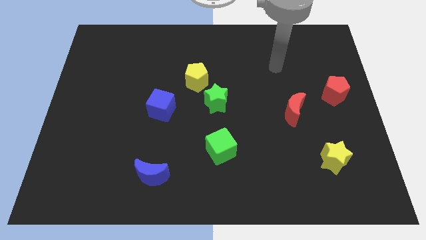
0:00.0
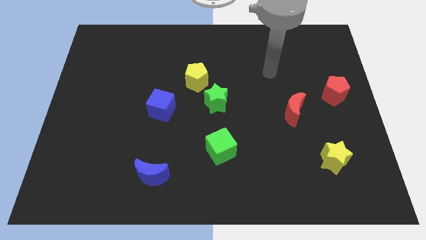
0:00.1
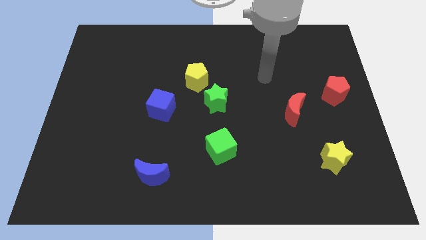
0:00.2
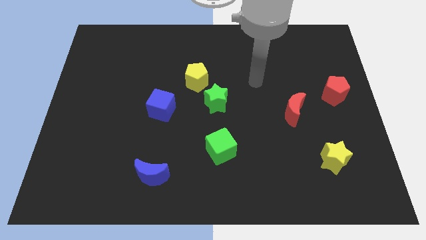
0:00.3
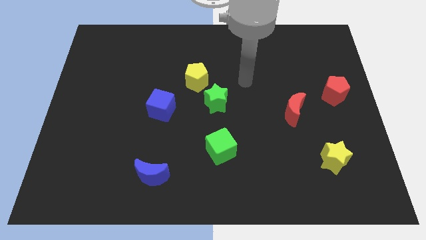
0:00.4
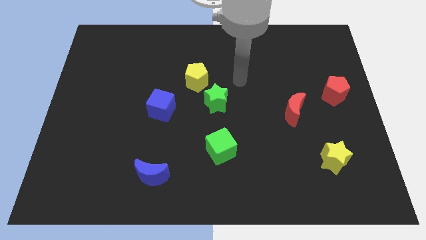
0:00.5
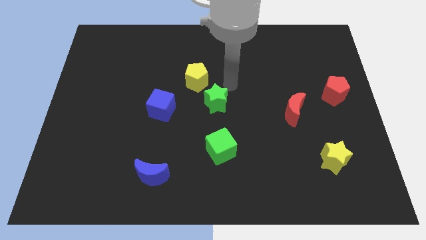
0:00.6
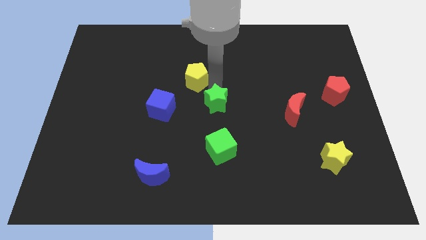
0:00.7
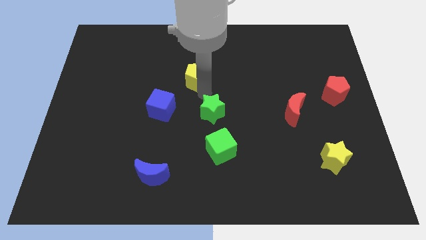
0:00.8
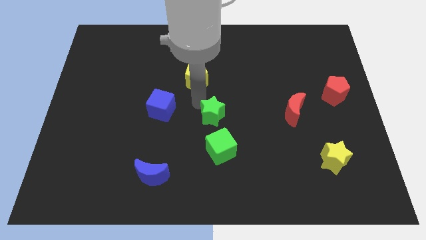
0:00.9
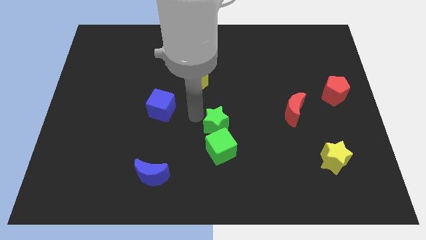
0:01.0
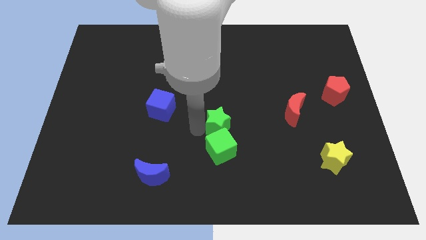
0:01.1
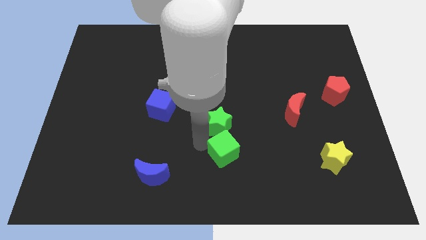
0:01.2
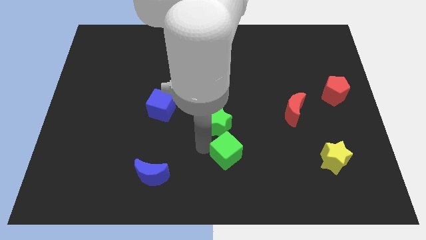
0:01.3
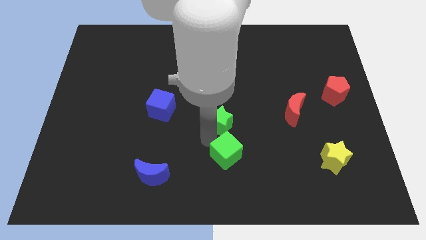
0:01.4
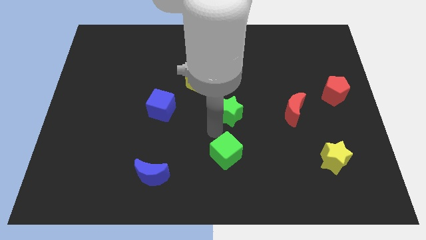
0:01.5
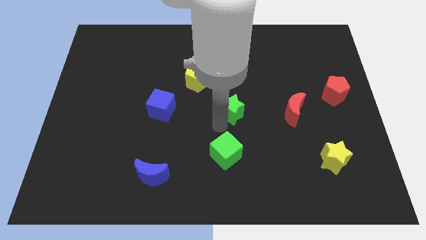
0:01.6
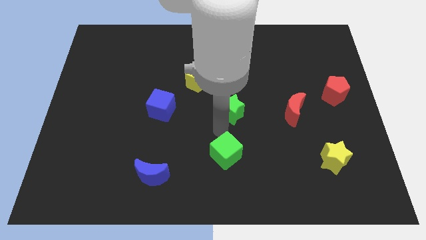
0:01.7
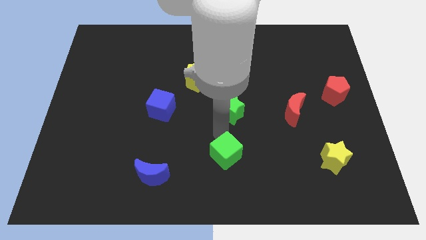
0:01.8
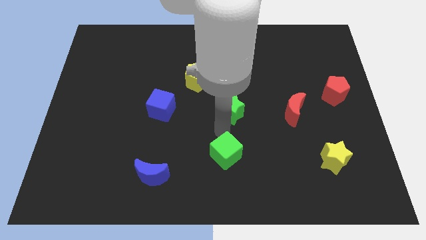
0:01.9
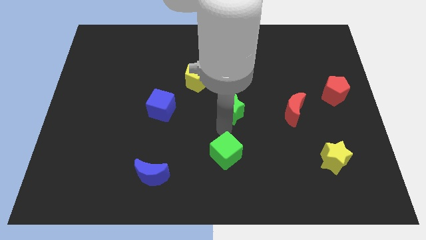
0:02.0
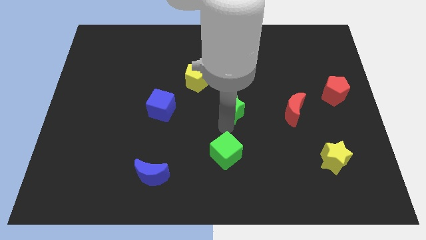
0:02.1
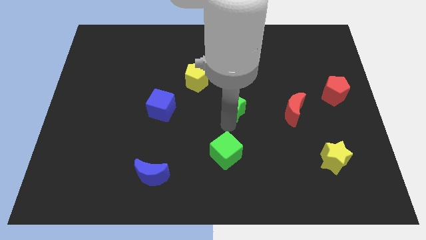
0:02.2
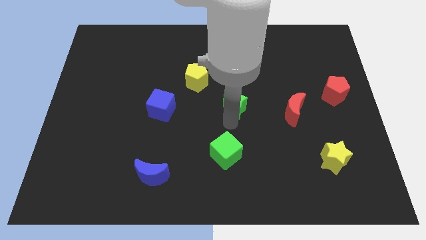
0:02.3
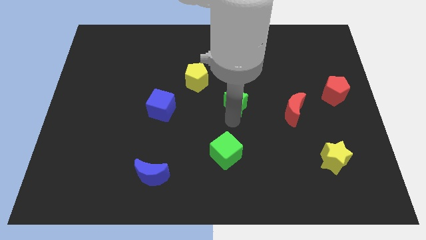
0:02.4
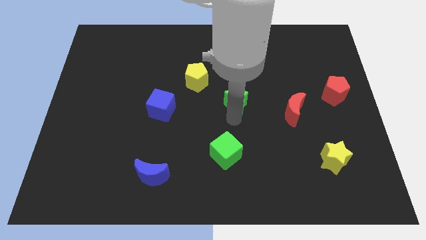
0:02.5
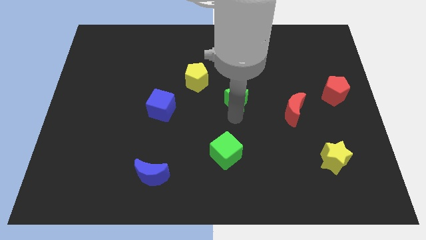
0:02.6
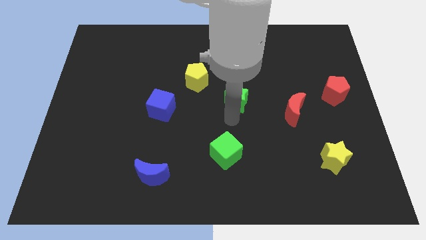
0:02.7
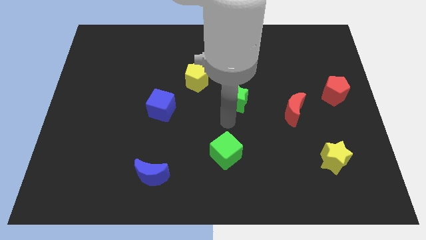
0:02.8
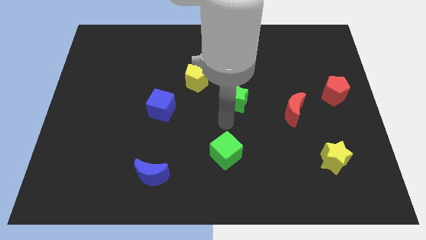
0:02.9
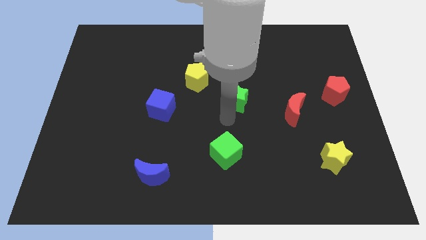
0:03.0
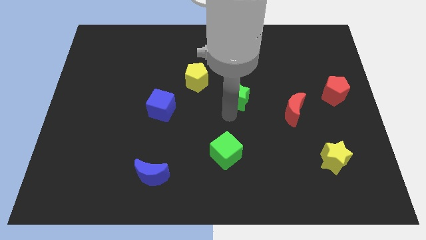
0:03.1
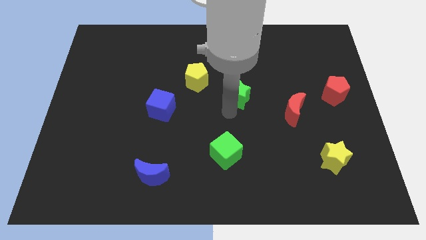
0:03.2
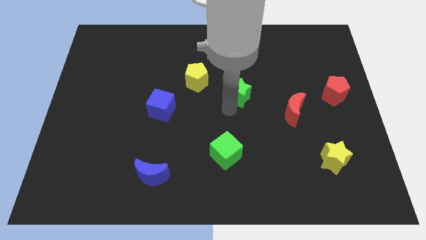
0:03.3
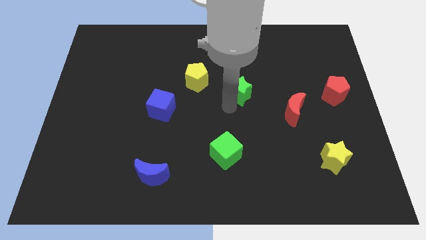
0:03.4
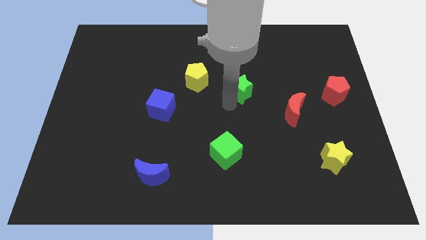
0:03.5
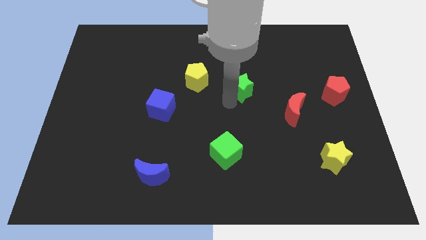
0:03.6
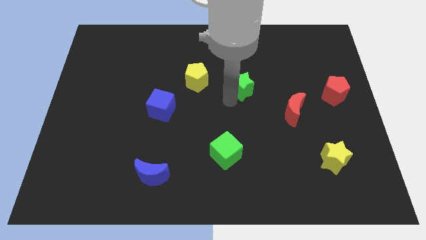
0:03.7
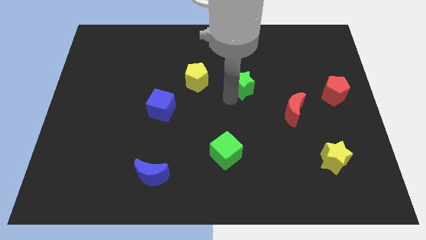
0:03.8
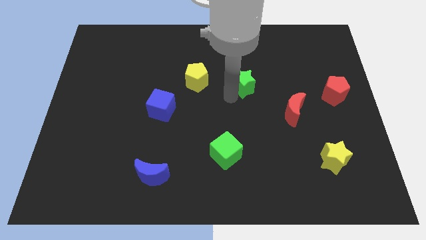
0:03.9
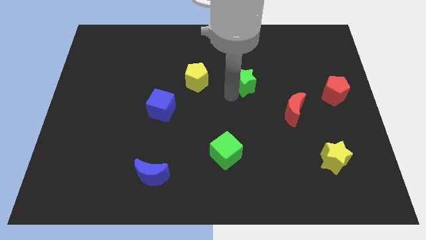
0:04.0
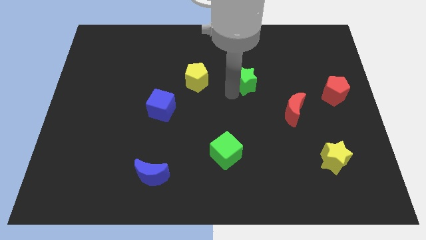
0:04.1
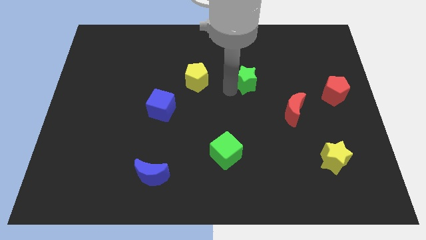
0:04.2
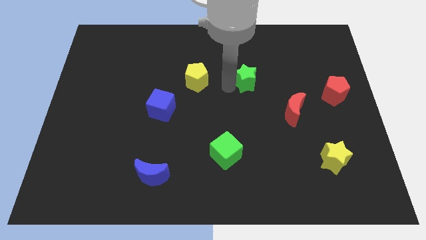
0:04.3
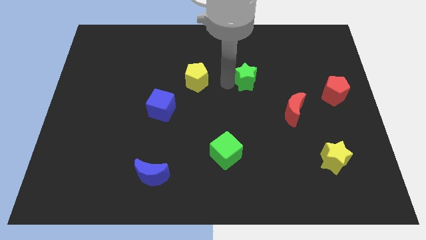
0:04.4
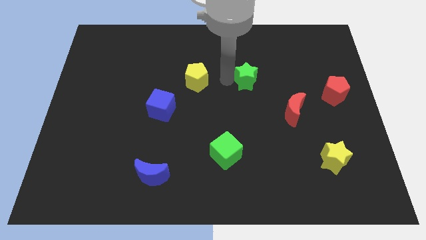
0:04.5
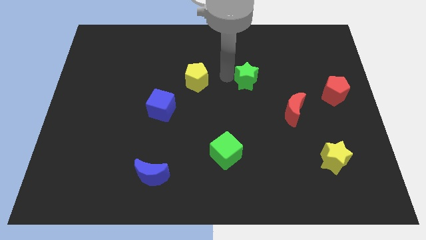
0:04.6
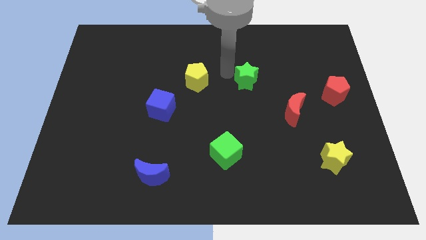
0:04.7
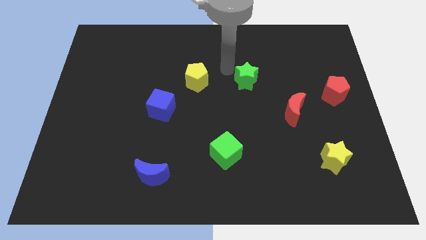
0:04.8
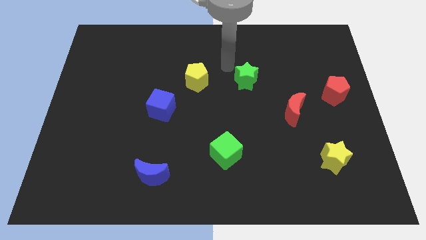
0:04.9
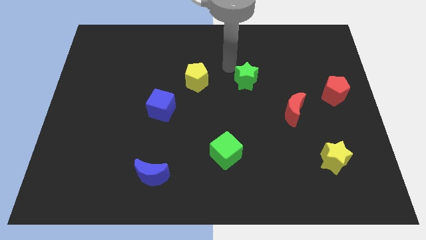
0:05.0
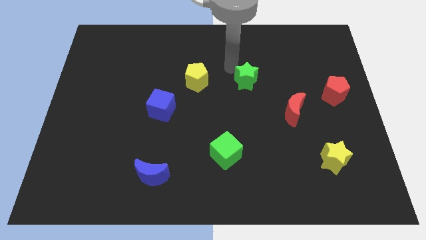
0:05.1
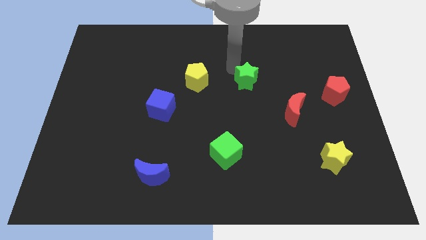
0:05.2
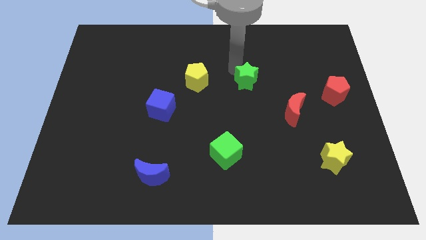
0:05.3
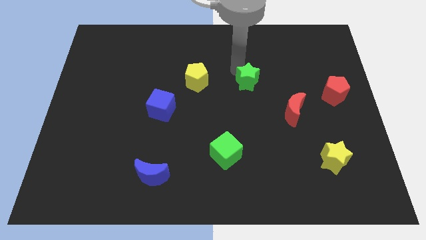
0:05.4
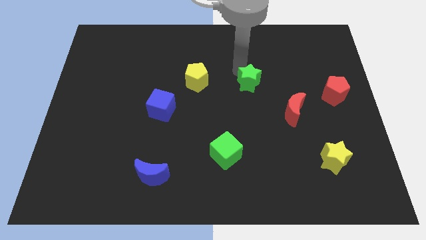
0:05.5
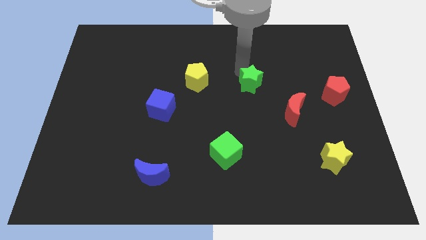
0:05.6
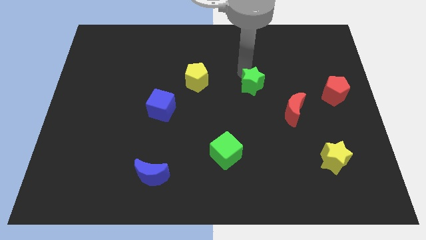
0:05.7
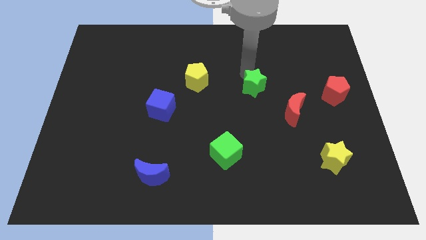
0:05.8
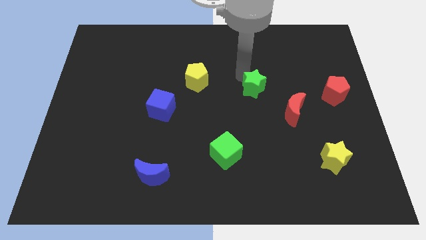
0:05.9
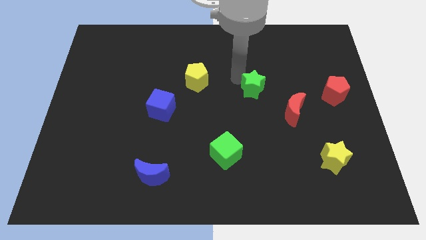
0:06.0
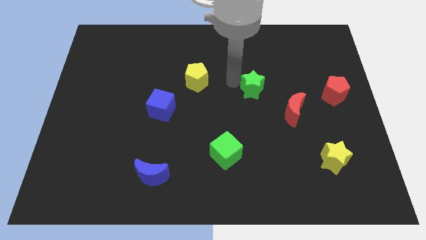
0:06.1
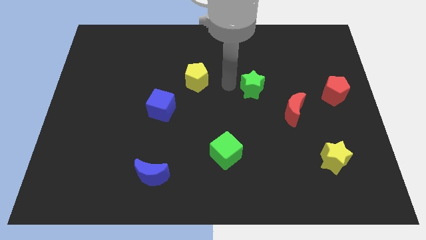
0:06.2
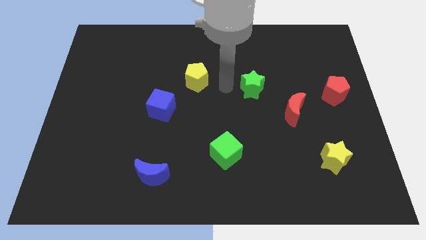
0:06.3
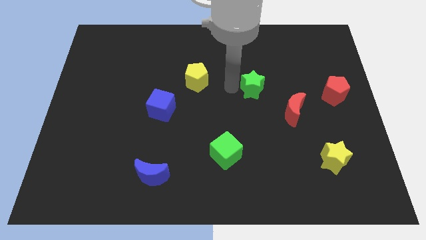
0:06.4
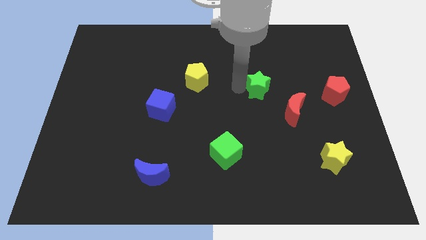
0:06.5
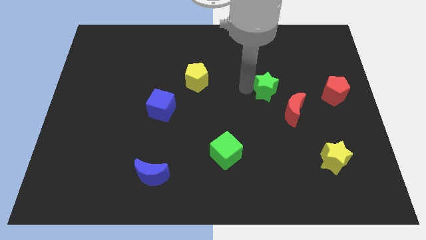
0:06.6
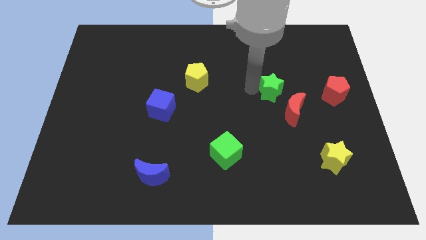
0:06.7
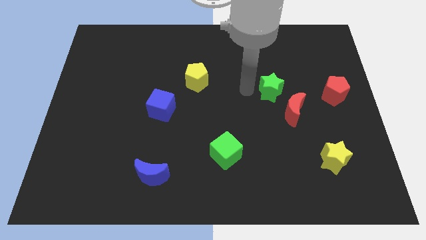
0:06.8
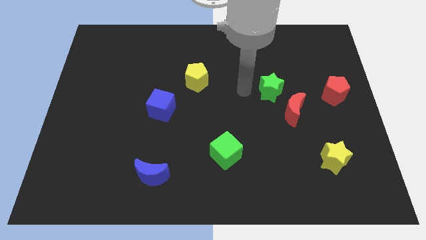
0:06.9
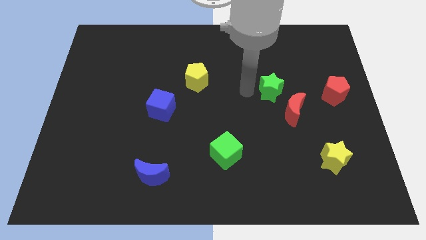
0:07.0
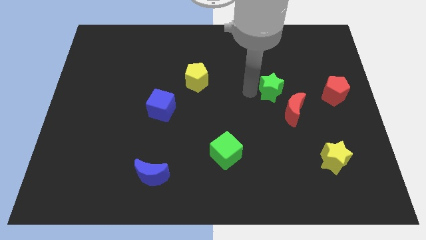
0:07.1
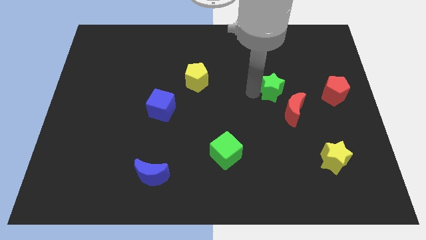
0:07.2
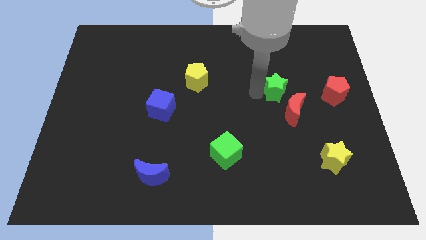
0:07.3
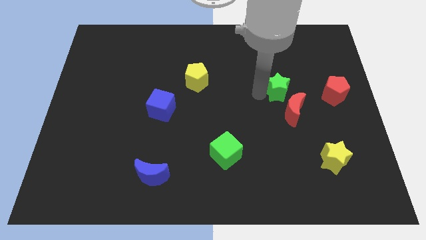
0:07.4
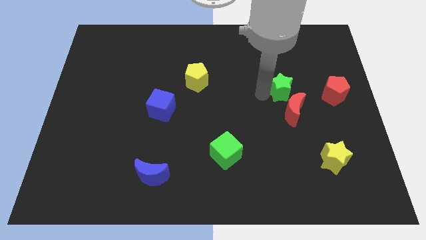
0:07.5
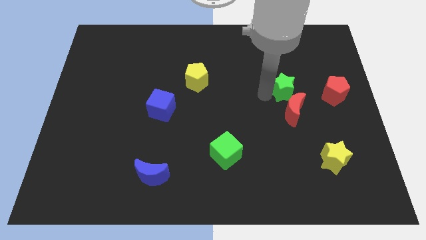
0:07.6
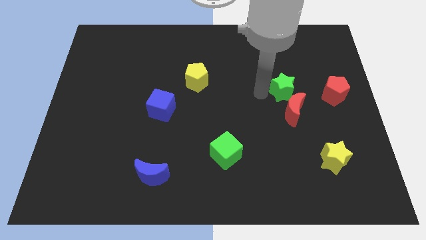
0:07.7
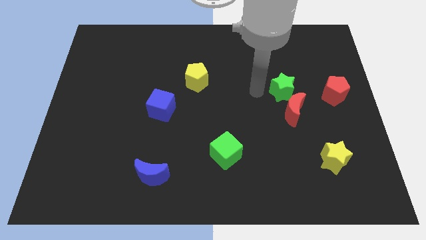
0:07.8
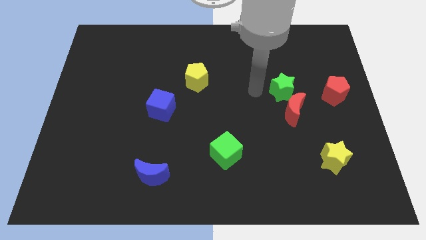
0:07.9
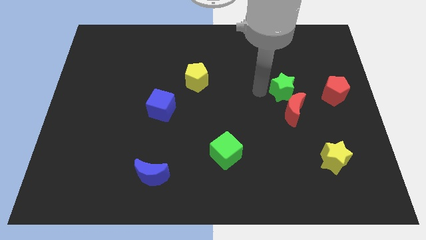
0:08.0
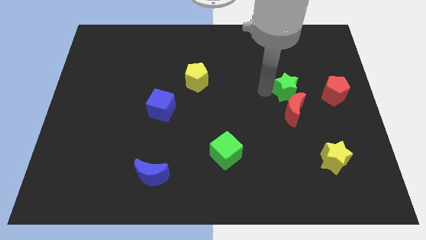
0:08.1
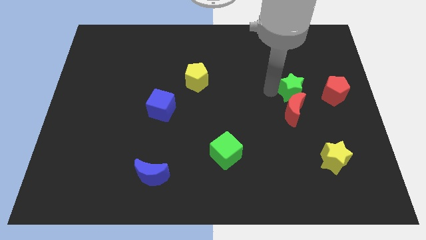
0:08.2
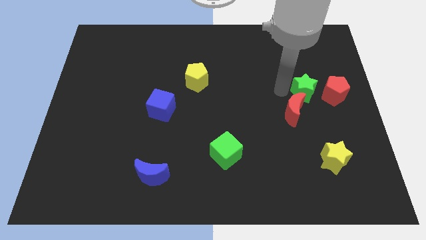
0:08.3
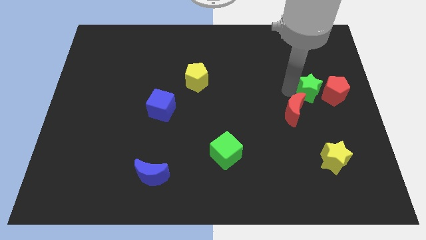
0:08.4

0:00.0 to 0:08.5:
move the green star towards the red pentagon
